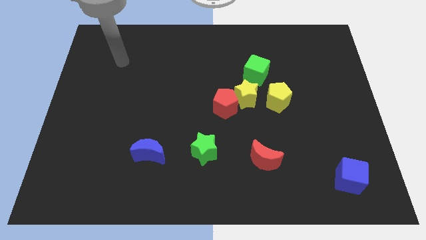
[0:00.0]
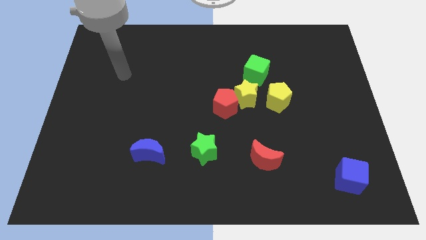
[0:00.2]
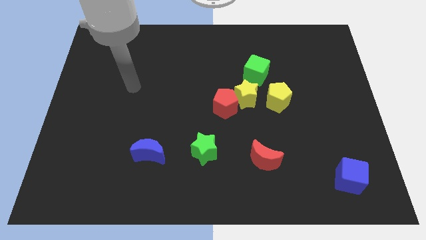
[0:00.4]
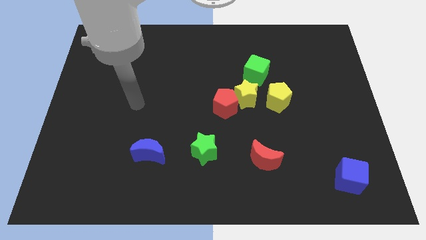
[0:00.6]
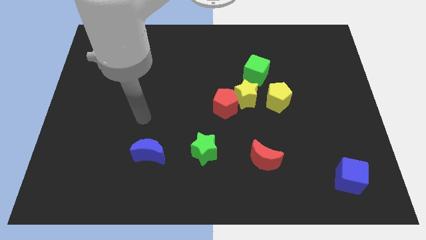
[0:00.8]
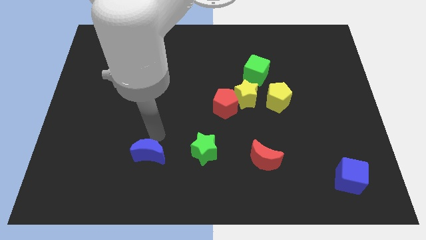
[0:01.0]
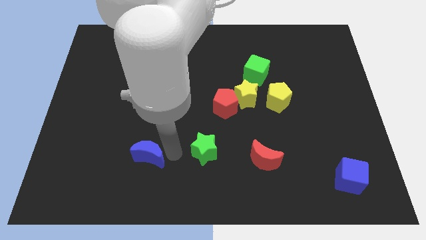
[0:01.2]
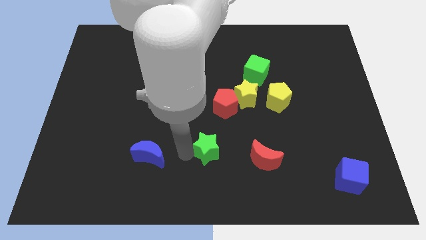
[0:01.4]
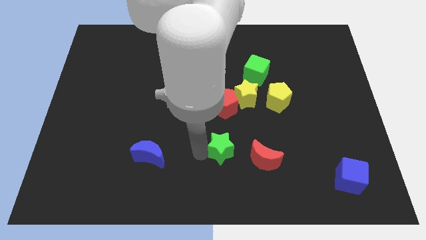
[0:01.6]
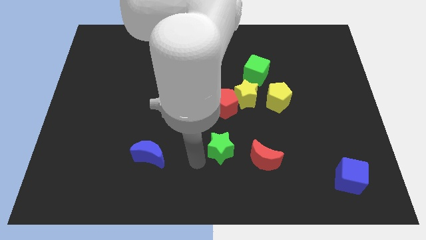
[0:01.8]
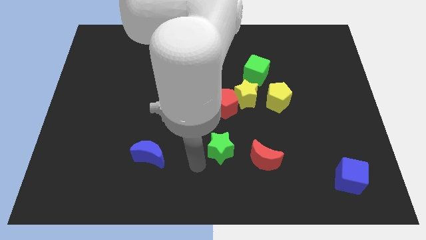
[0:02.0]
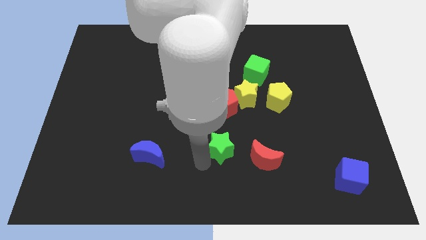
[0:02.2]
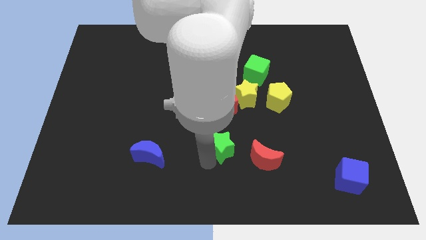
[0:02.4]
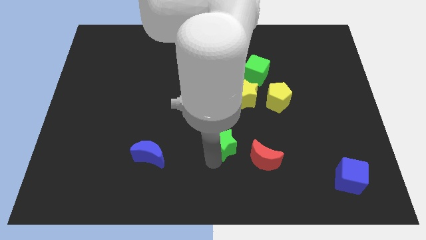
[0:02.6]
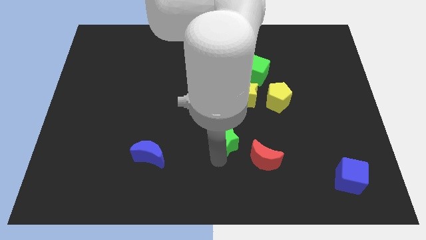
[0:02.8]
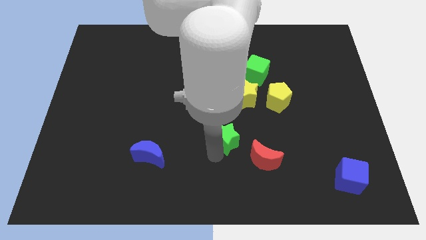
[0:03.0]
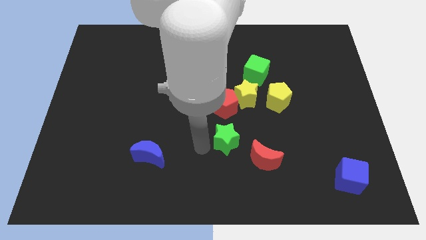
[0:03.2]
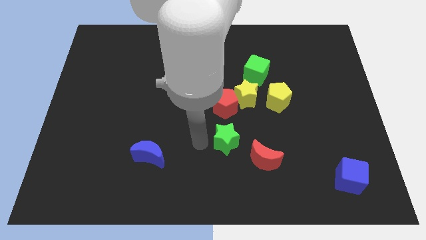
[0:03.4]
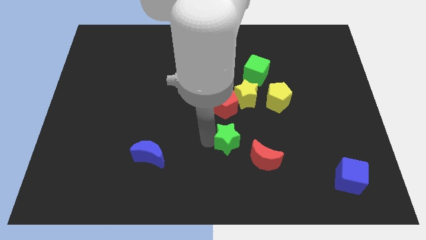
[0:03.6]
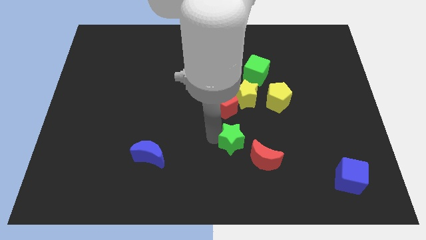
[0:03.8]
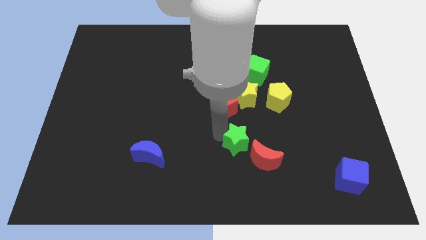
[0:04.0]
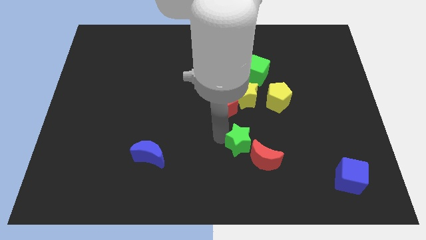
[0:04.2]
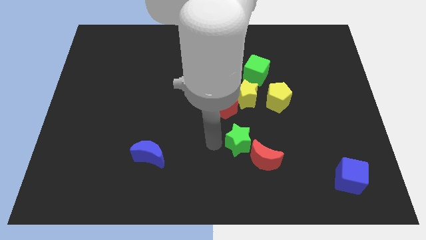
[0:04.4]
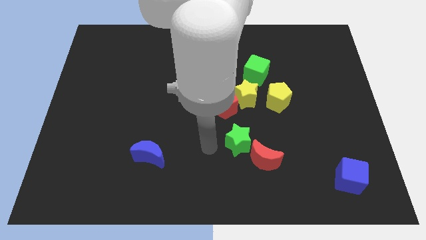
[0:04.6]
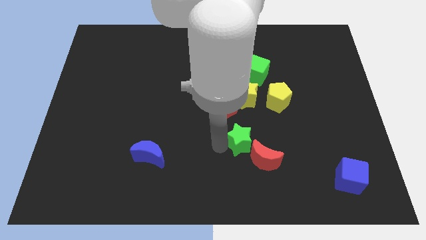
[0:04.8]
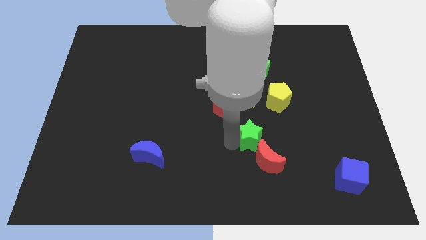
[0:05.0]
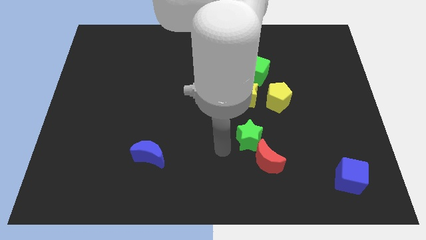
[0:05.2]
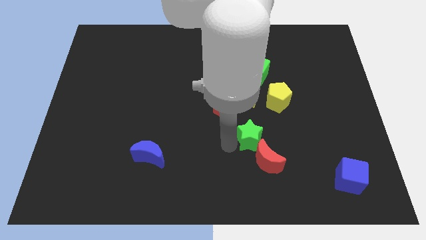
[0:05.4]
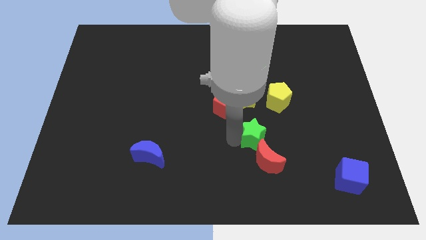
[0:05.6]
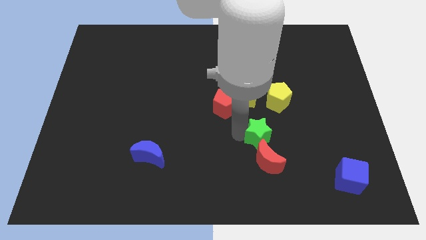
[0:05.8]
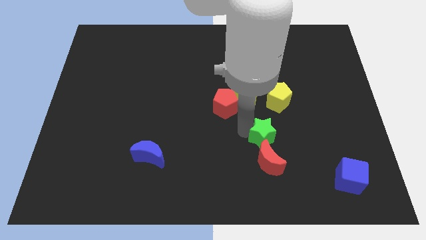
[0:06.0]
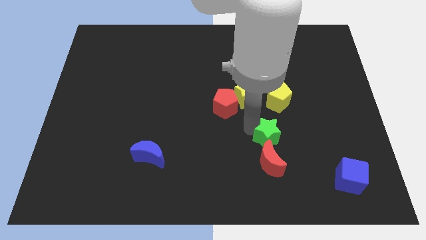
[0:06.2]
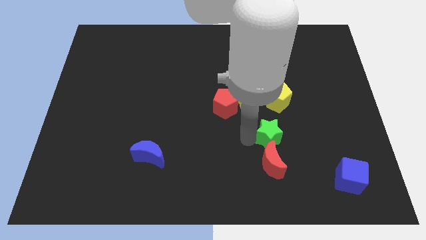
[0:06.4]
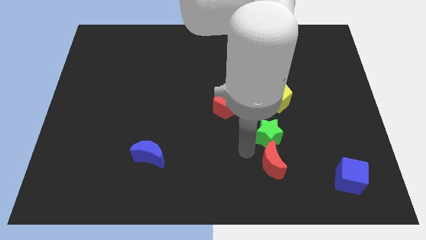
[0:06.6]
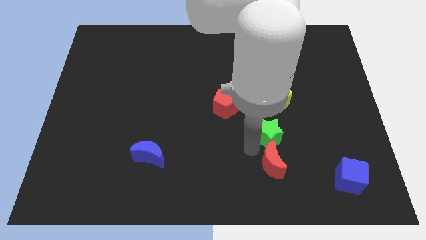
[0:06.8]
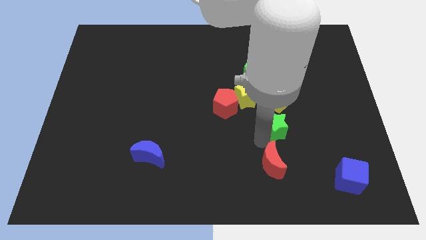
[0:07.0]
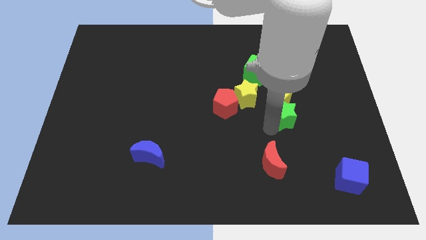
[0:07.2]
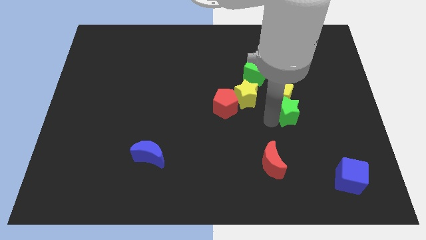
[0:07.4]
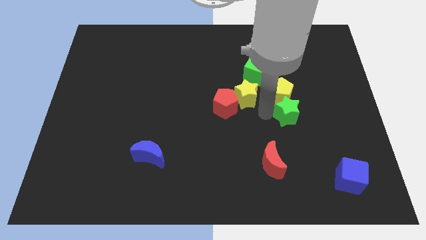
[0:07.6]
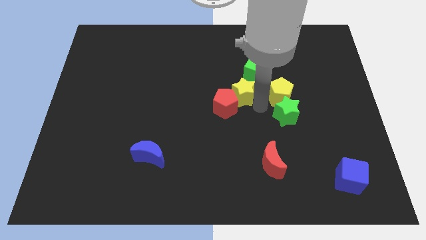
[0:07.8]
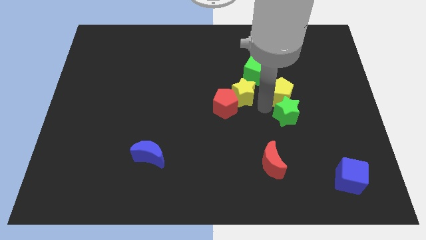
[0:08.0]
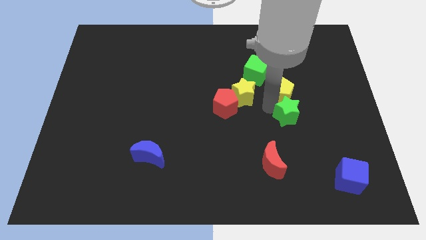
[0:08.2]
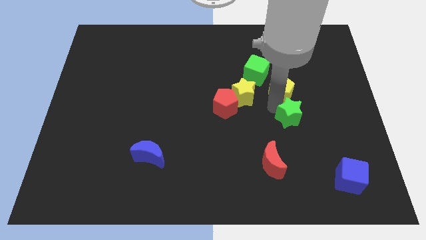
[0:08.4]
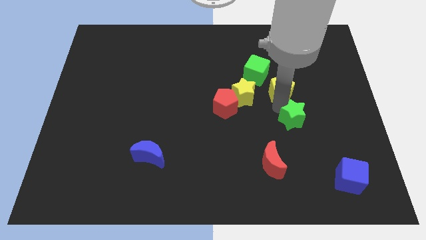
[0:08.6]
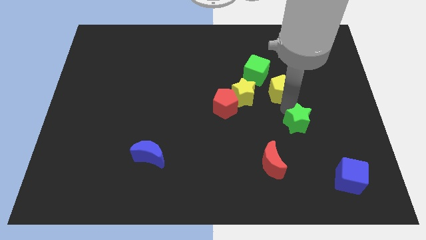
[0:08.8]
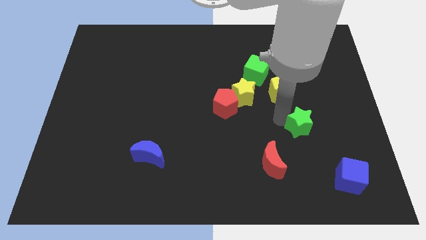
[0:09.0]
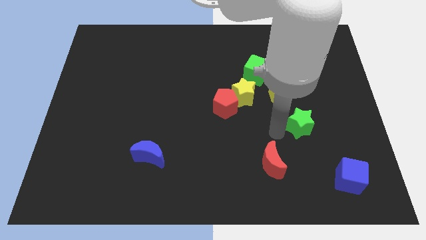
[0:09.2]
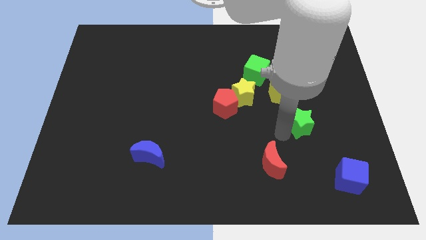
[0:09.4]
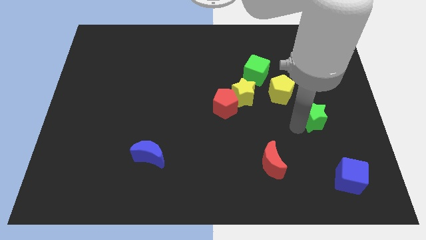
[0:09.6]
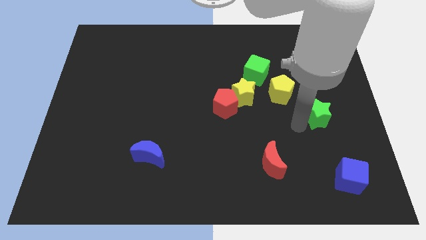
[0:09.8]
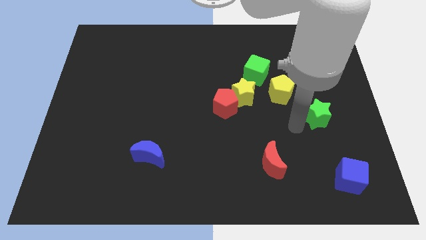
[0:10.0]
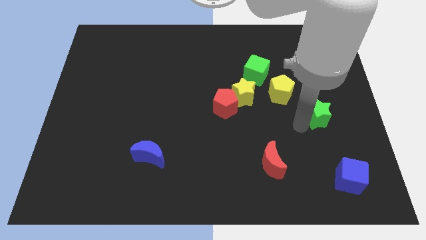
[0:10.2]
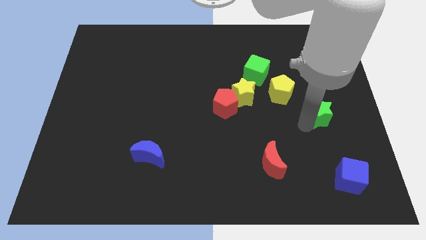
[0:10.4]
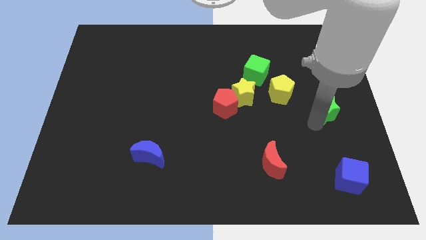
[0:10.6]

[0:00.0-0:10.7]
put the green star to the right side of the board

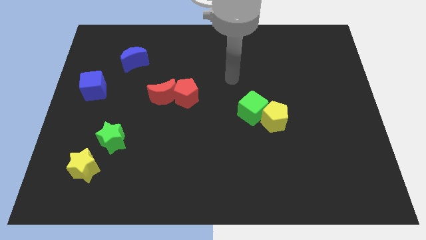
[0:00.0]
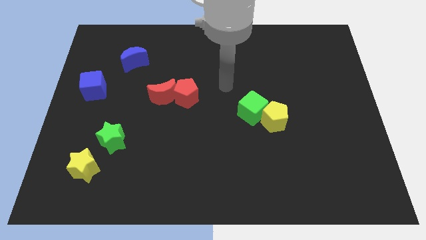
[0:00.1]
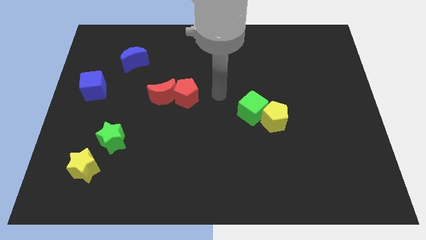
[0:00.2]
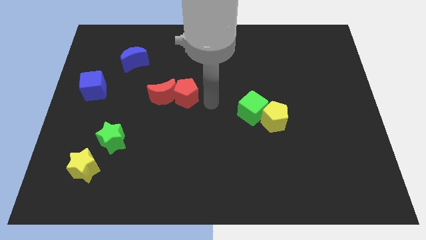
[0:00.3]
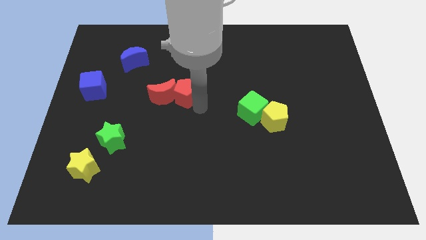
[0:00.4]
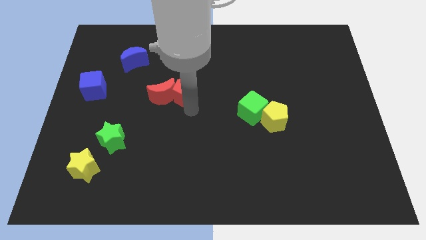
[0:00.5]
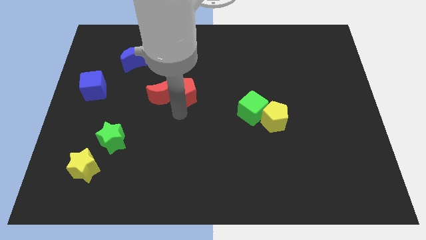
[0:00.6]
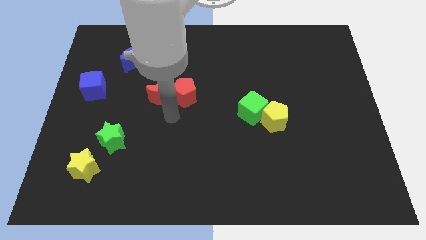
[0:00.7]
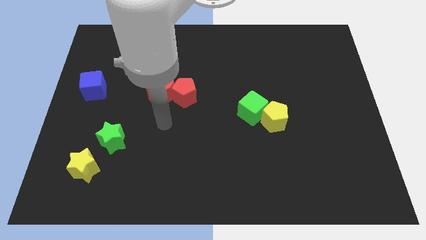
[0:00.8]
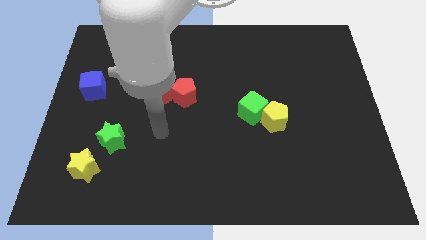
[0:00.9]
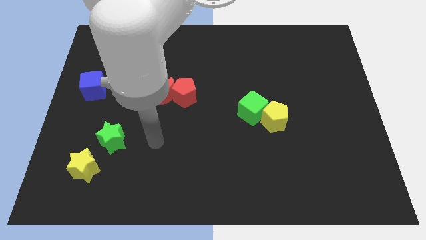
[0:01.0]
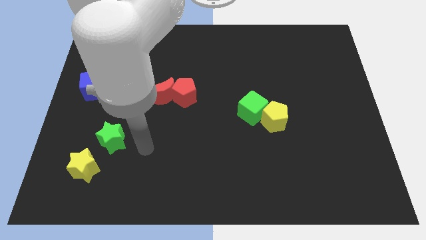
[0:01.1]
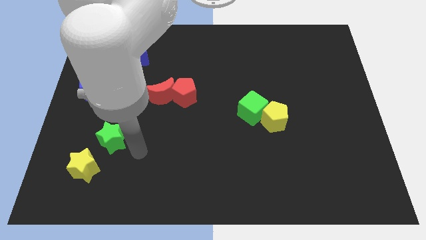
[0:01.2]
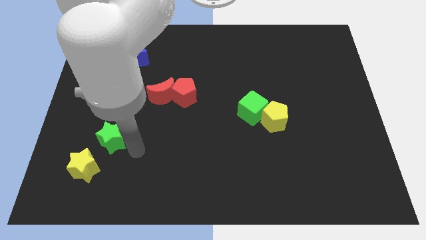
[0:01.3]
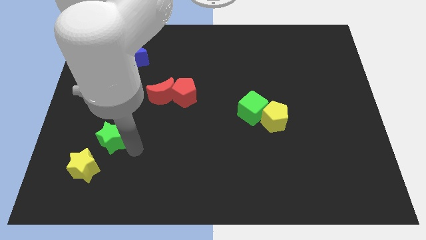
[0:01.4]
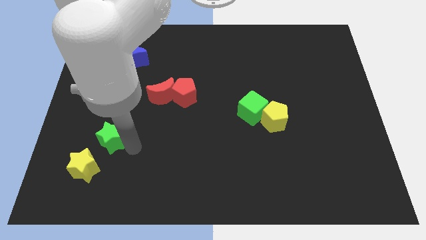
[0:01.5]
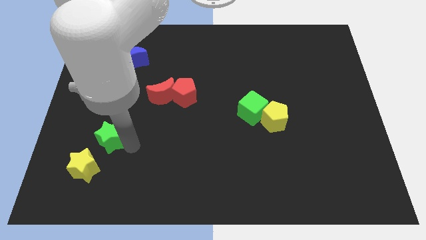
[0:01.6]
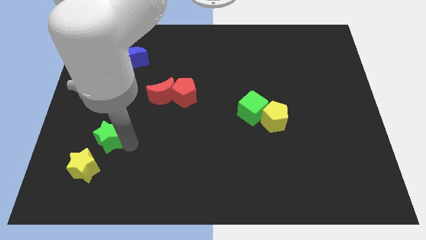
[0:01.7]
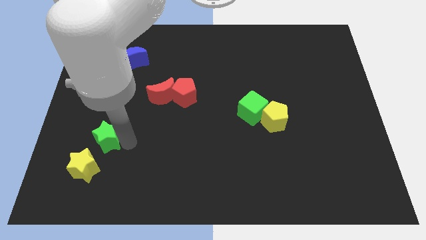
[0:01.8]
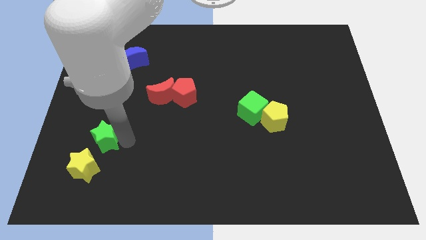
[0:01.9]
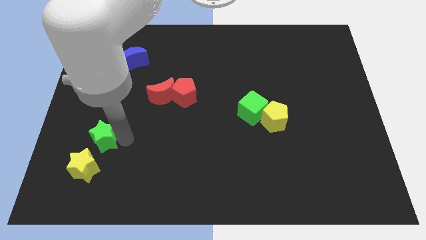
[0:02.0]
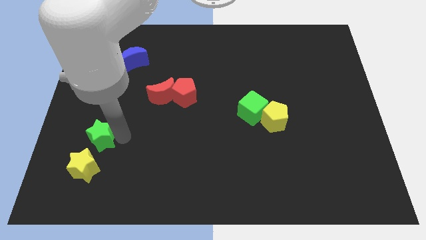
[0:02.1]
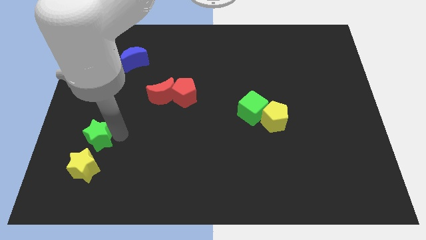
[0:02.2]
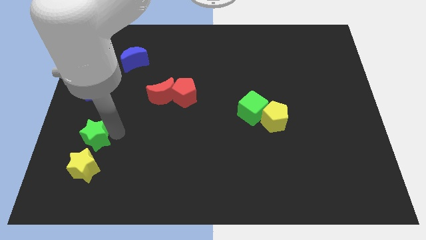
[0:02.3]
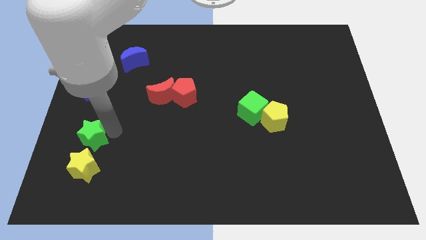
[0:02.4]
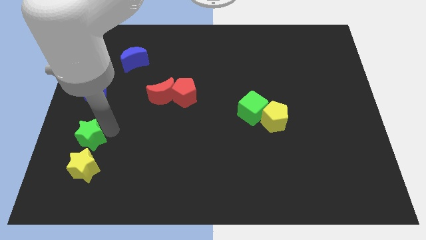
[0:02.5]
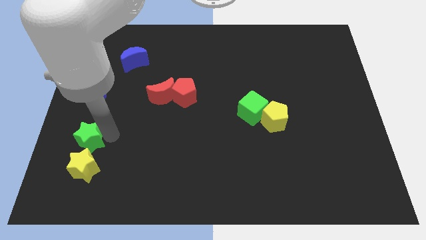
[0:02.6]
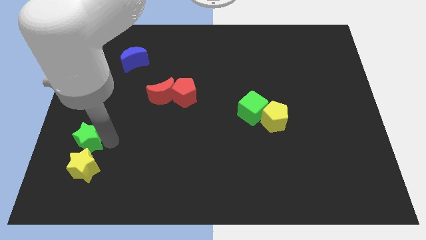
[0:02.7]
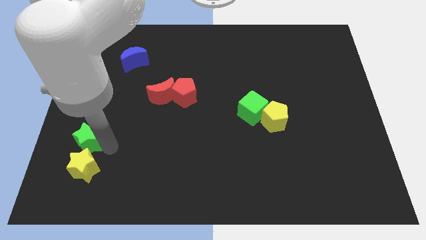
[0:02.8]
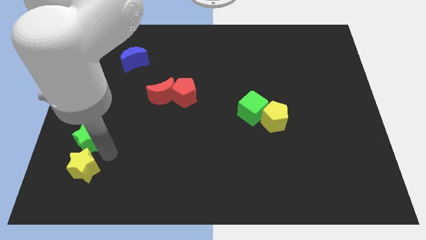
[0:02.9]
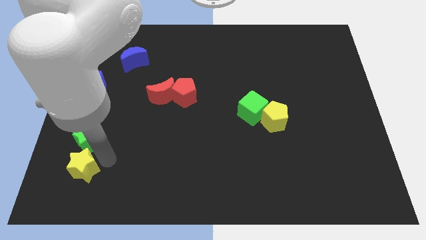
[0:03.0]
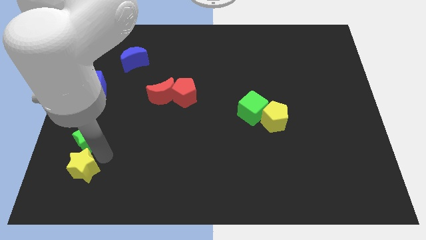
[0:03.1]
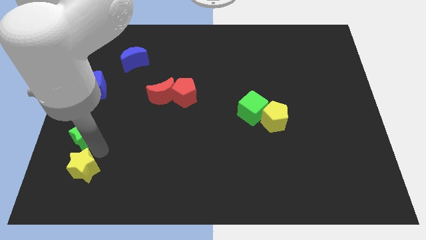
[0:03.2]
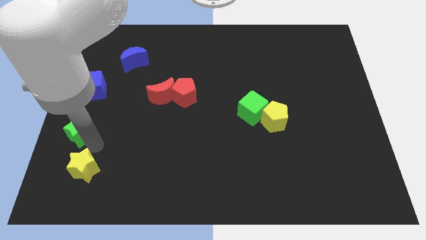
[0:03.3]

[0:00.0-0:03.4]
push the green star to the center left
